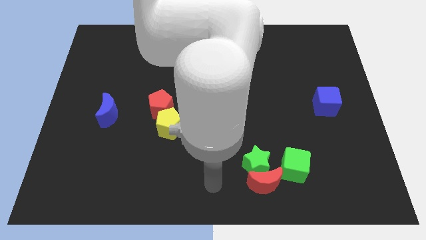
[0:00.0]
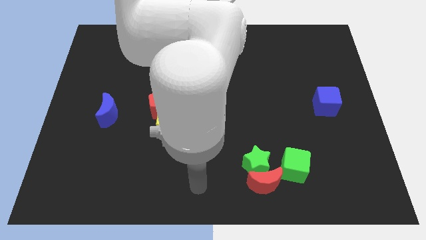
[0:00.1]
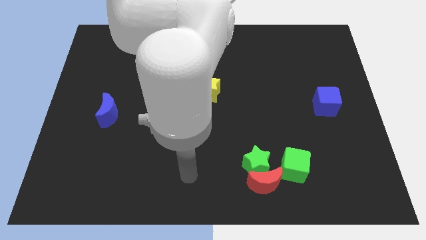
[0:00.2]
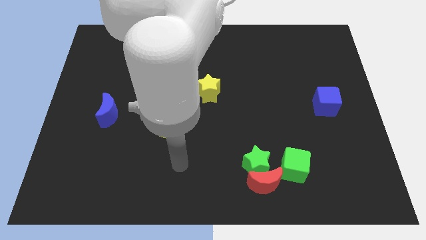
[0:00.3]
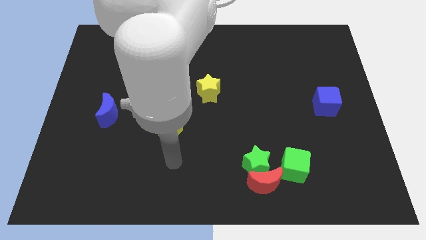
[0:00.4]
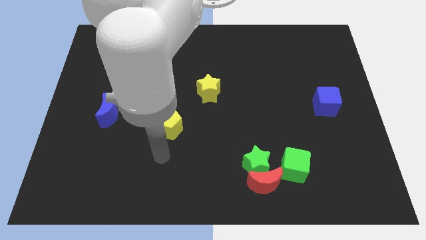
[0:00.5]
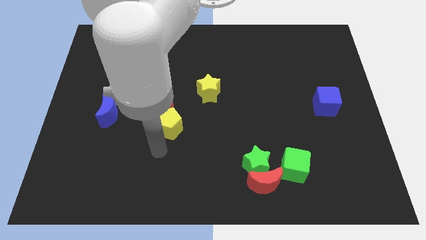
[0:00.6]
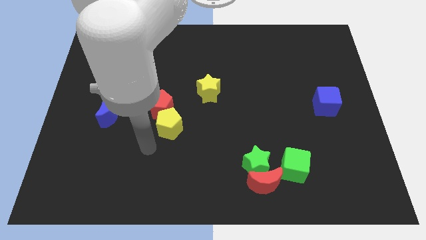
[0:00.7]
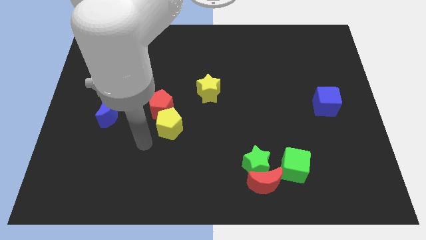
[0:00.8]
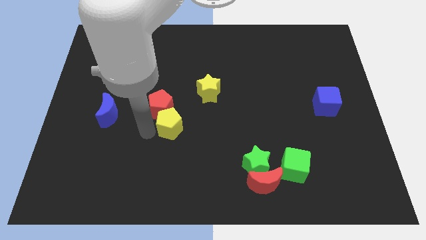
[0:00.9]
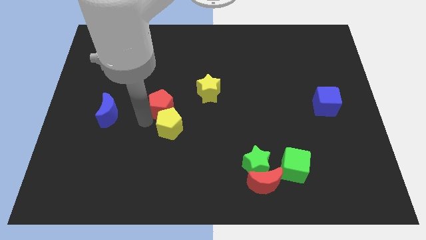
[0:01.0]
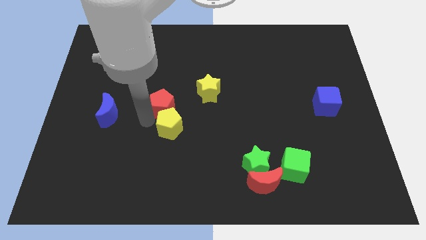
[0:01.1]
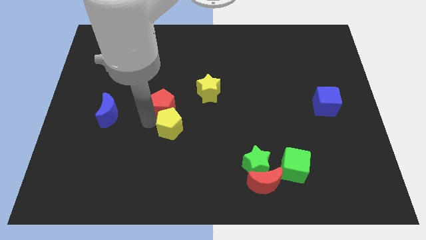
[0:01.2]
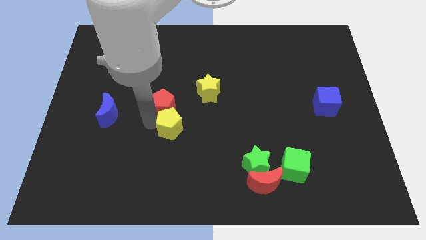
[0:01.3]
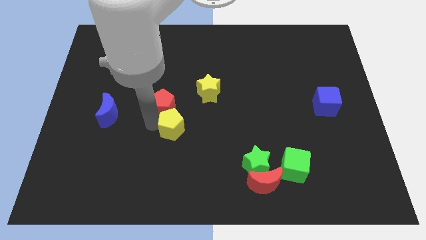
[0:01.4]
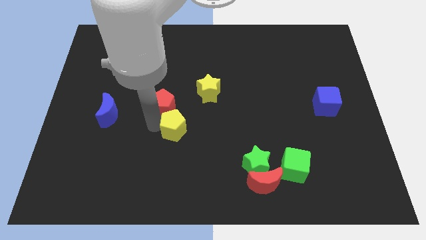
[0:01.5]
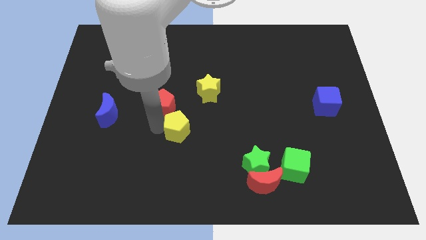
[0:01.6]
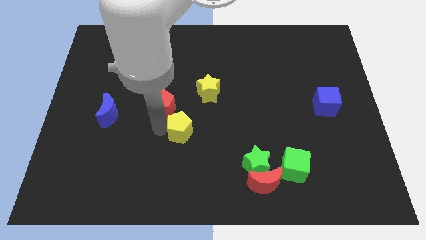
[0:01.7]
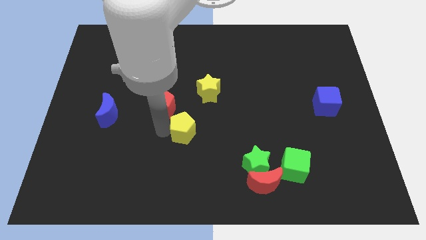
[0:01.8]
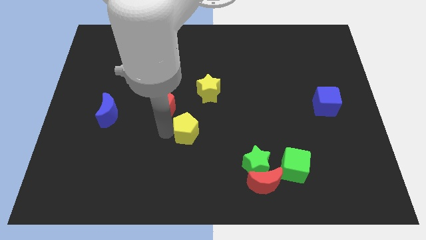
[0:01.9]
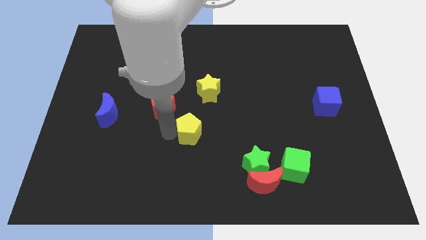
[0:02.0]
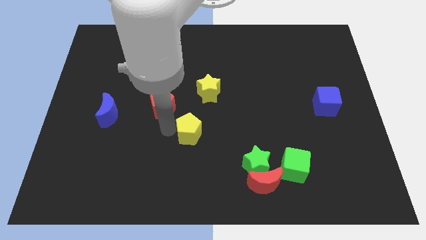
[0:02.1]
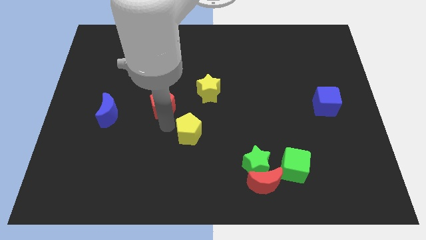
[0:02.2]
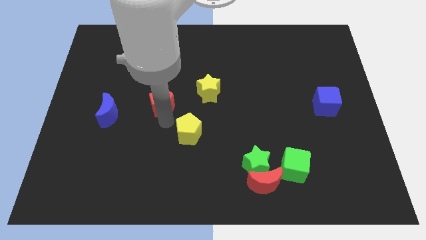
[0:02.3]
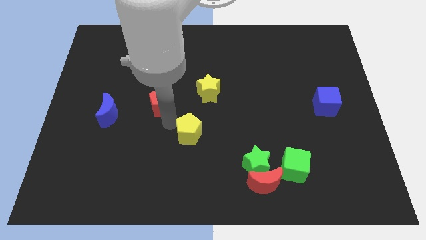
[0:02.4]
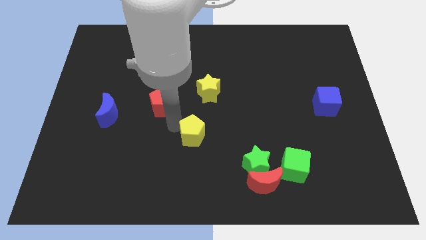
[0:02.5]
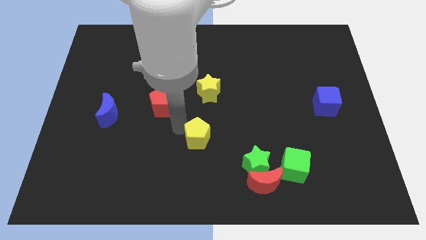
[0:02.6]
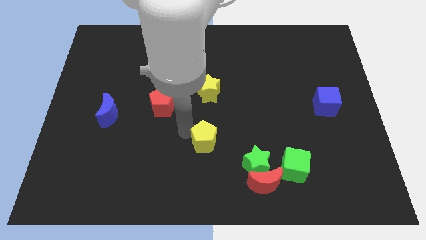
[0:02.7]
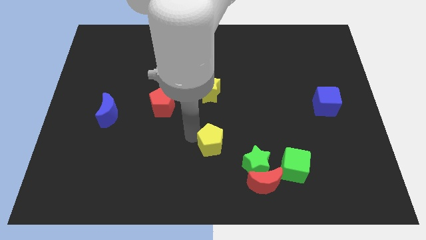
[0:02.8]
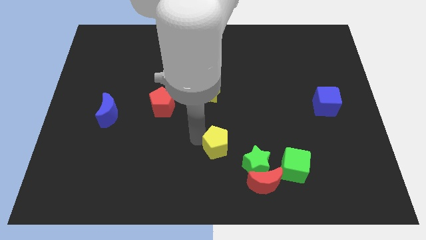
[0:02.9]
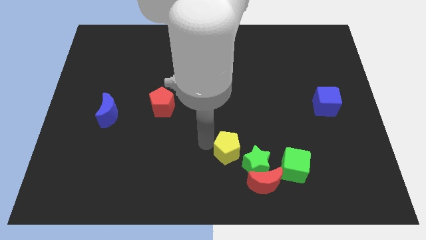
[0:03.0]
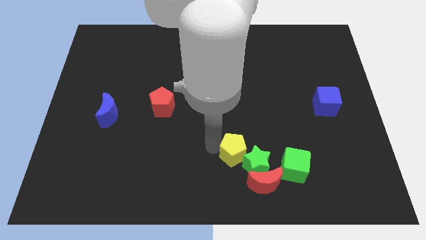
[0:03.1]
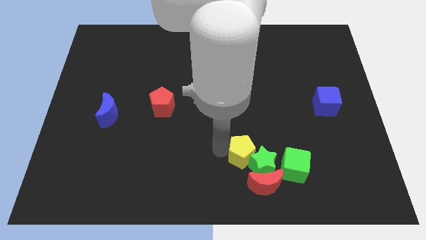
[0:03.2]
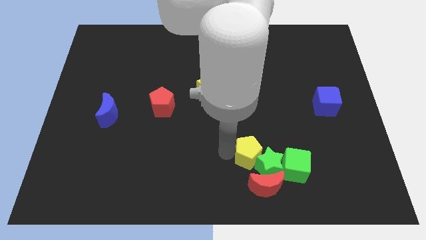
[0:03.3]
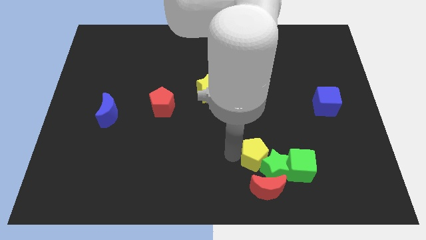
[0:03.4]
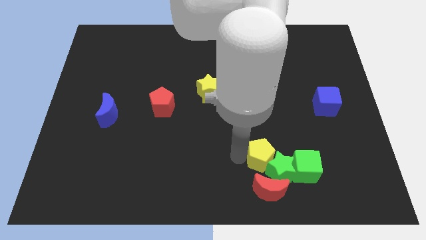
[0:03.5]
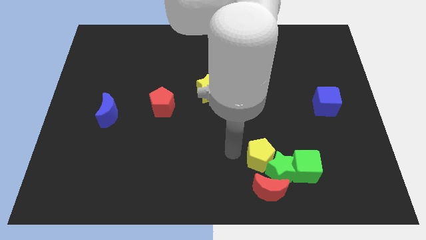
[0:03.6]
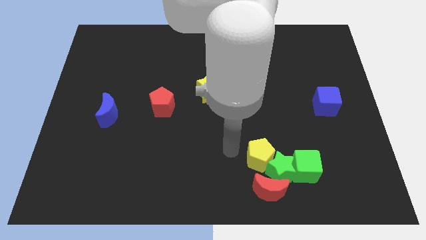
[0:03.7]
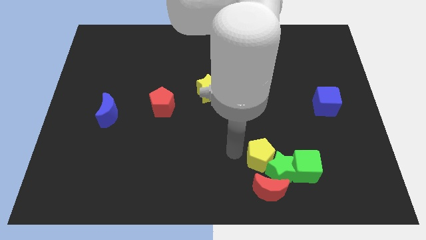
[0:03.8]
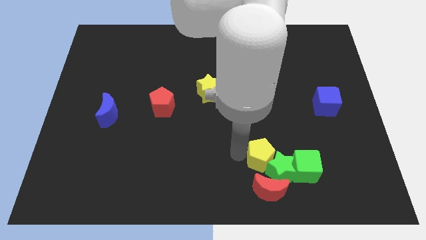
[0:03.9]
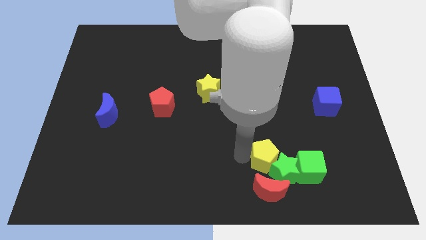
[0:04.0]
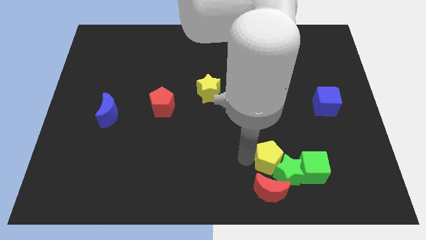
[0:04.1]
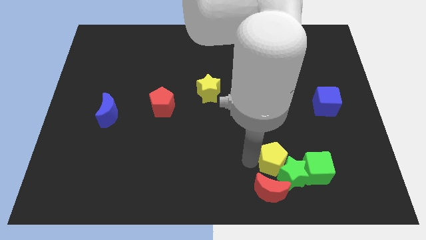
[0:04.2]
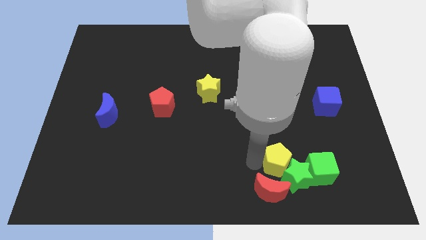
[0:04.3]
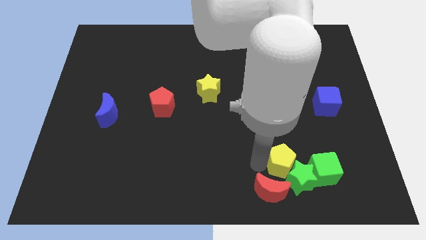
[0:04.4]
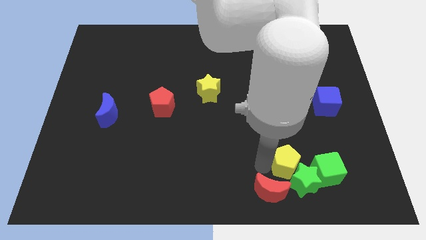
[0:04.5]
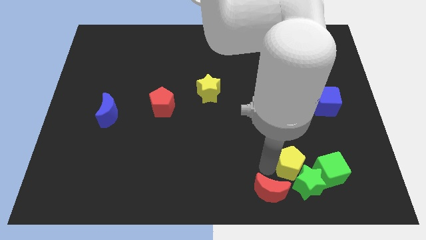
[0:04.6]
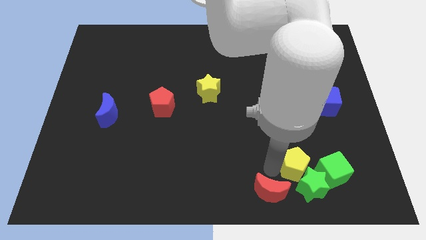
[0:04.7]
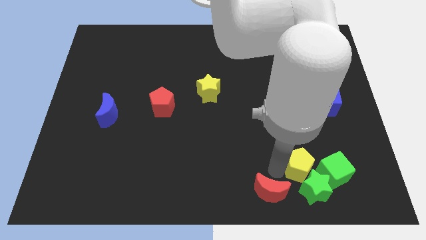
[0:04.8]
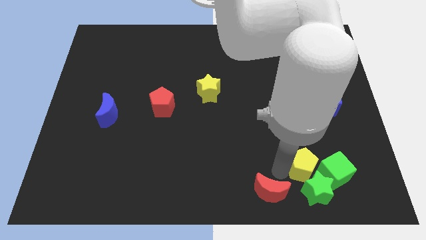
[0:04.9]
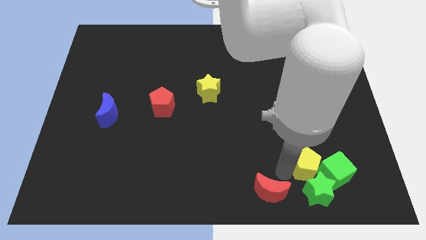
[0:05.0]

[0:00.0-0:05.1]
move the yellow pentagon towards the green cube

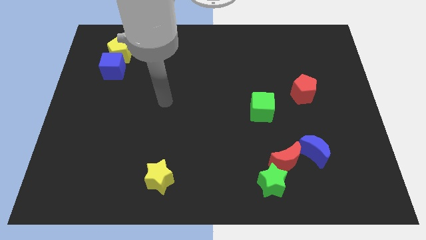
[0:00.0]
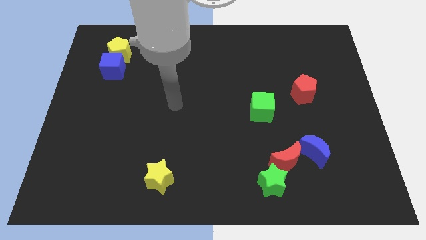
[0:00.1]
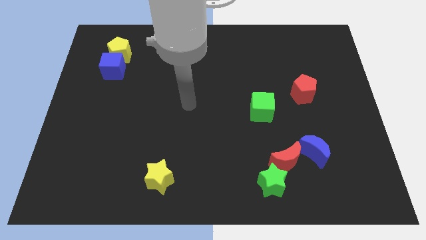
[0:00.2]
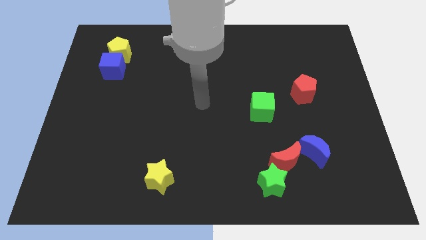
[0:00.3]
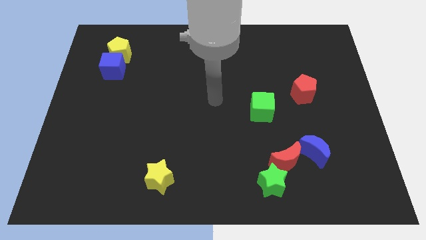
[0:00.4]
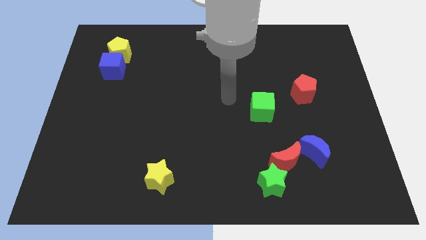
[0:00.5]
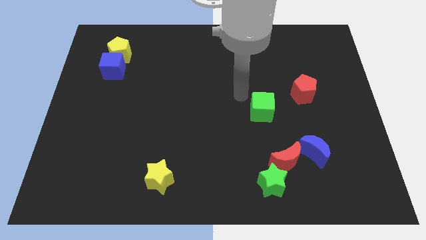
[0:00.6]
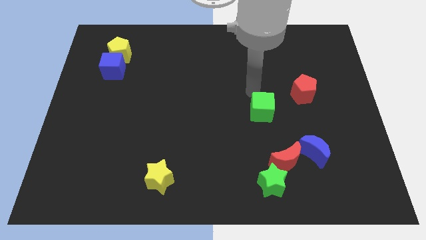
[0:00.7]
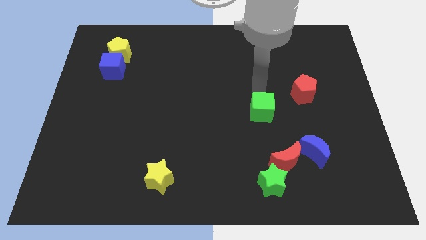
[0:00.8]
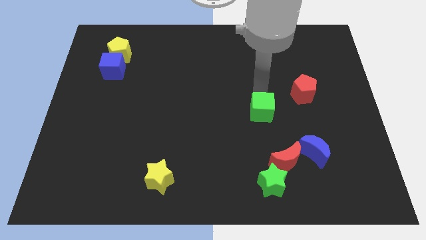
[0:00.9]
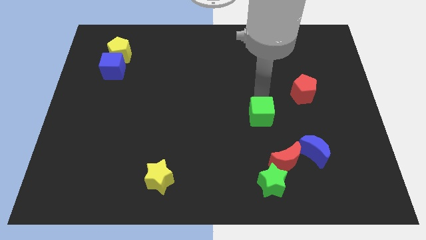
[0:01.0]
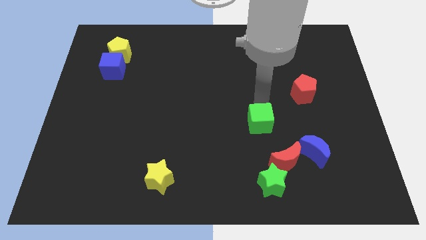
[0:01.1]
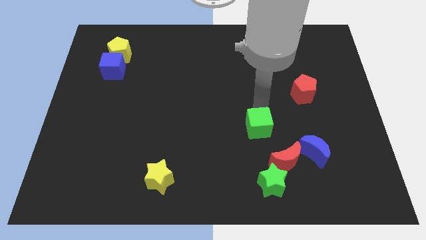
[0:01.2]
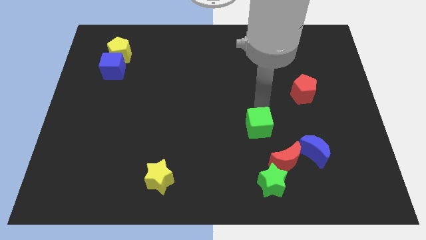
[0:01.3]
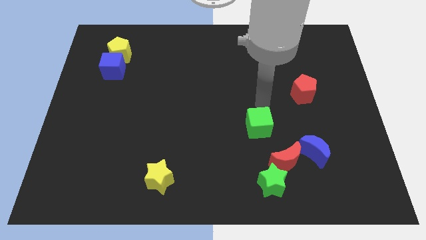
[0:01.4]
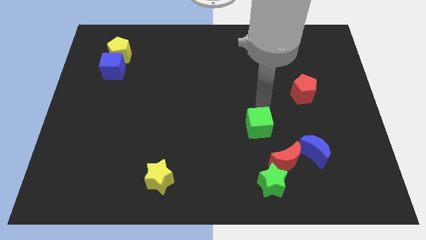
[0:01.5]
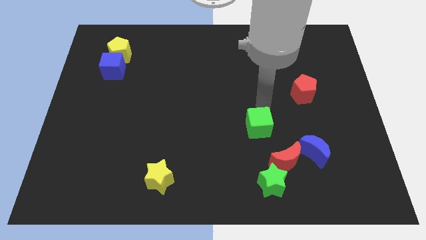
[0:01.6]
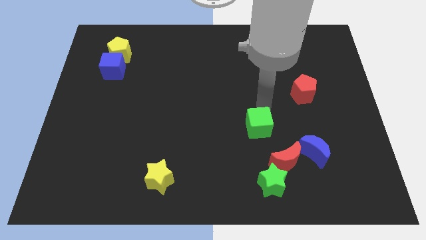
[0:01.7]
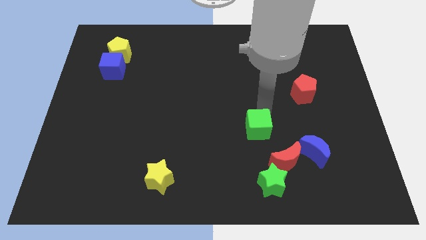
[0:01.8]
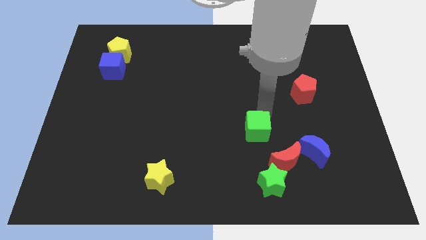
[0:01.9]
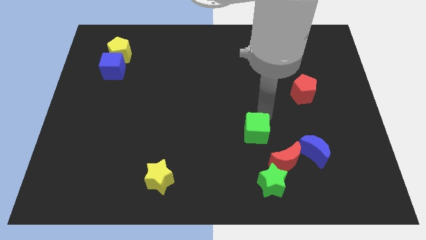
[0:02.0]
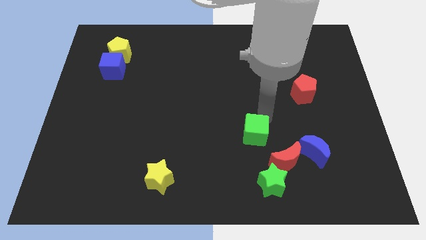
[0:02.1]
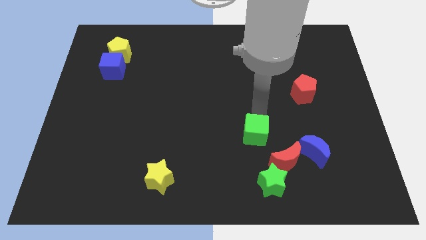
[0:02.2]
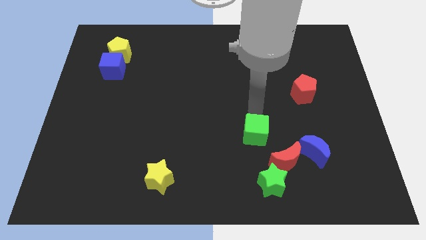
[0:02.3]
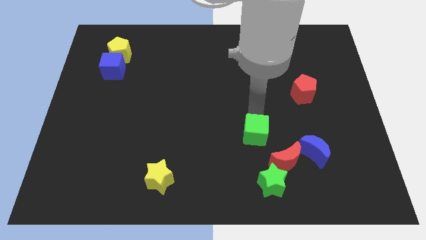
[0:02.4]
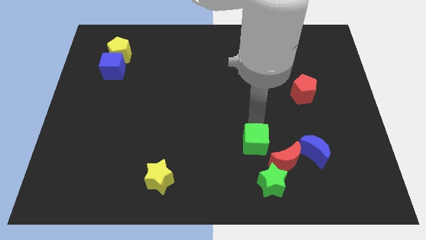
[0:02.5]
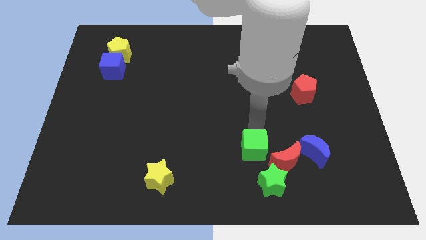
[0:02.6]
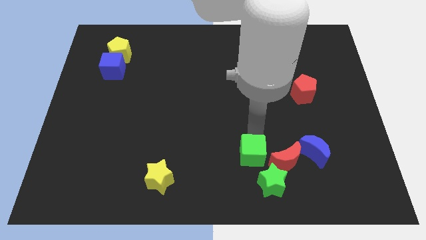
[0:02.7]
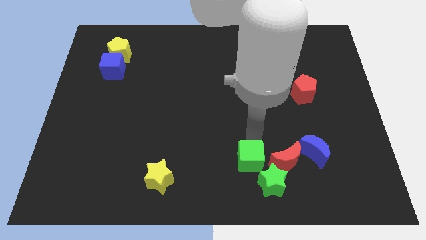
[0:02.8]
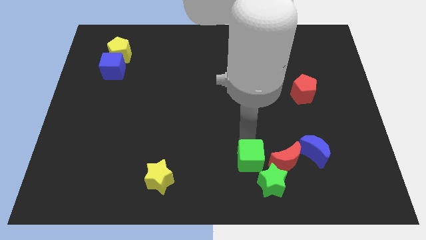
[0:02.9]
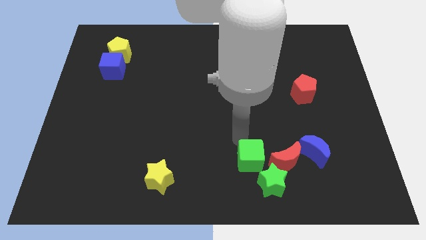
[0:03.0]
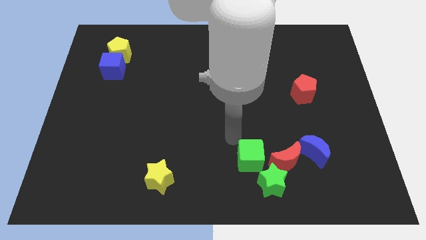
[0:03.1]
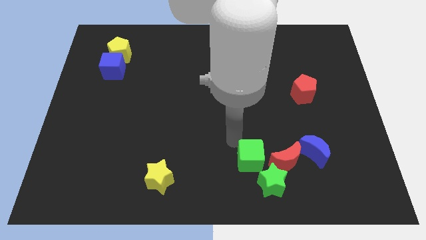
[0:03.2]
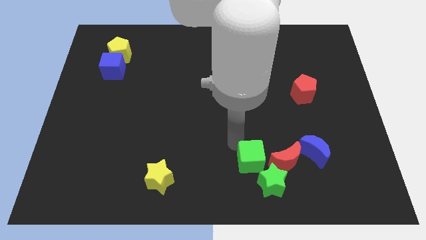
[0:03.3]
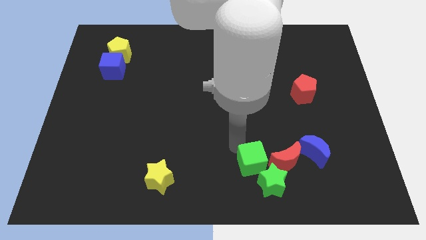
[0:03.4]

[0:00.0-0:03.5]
put the green cube towards the green star
